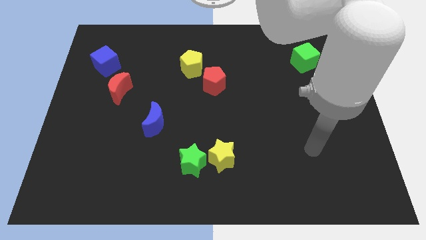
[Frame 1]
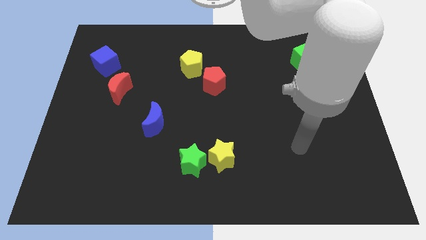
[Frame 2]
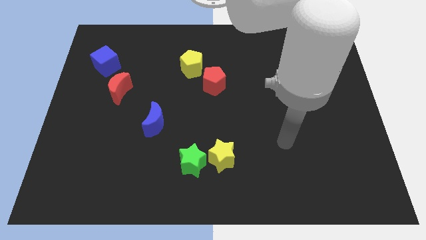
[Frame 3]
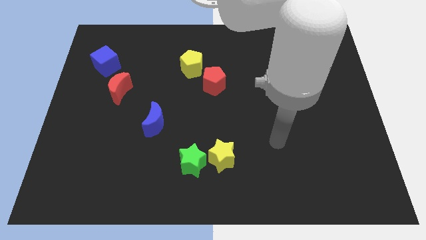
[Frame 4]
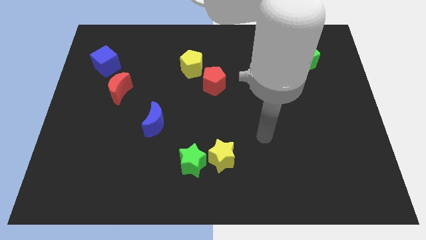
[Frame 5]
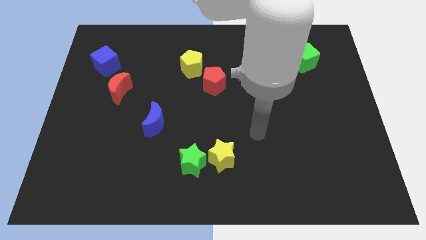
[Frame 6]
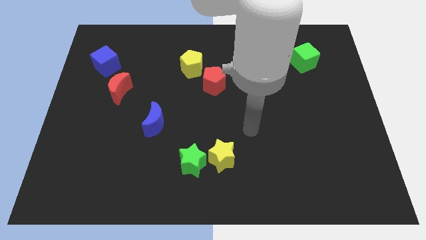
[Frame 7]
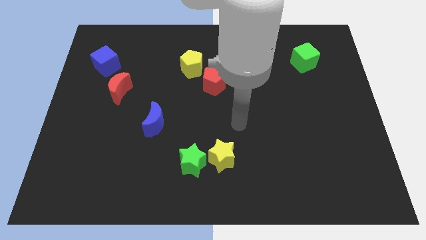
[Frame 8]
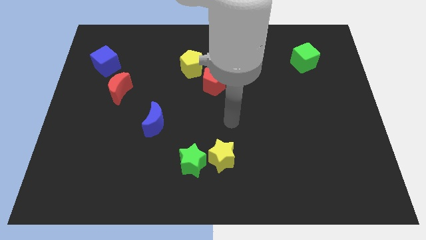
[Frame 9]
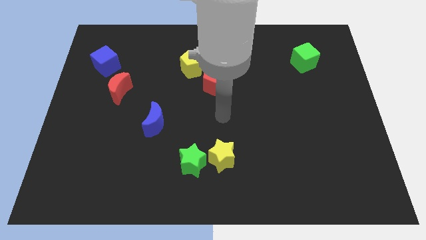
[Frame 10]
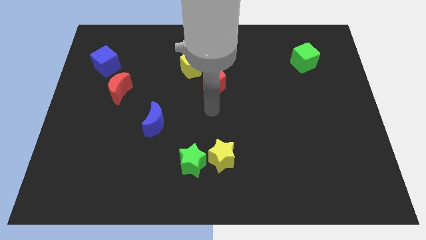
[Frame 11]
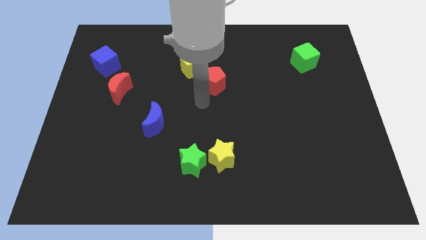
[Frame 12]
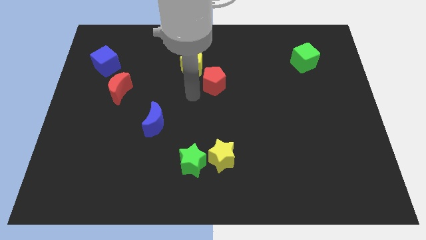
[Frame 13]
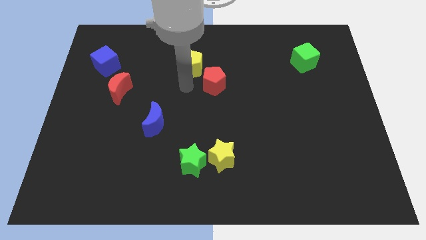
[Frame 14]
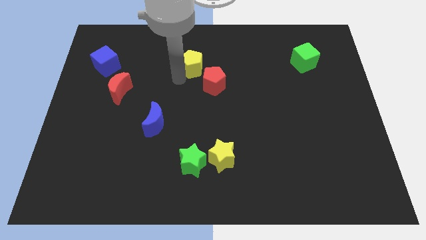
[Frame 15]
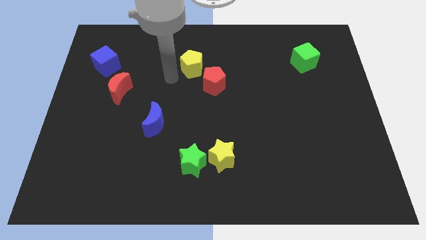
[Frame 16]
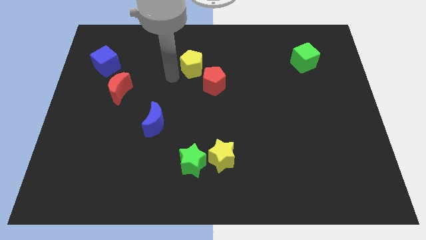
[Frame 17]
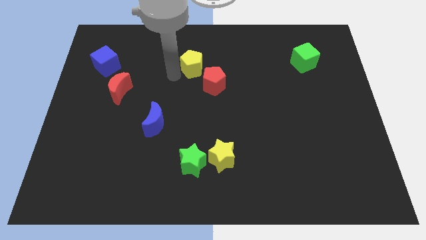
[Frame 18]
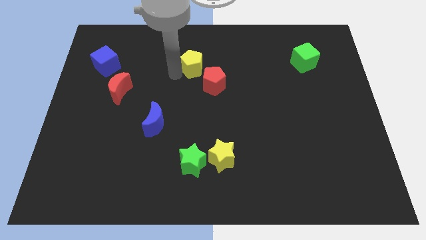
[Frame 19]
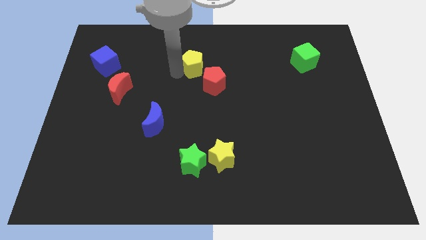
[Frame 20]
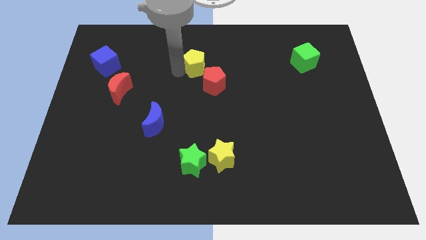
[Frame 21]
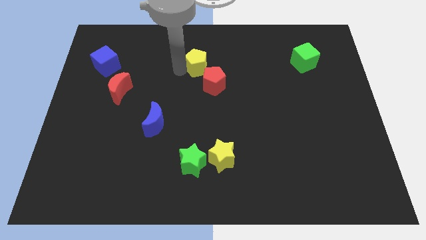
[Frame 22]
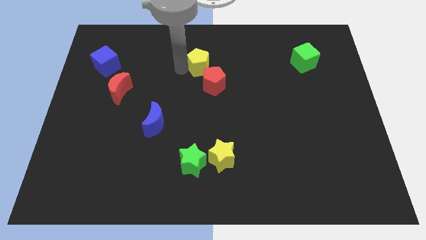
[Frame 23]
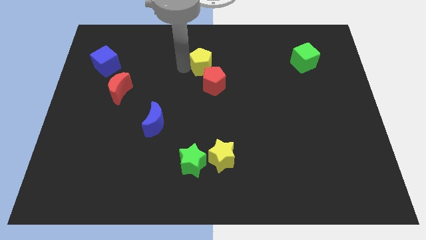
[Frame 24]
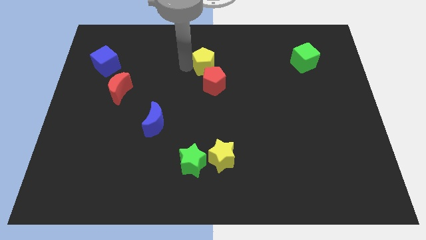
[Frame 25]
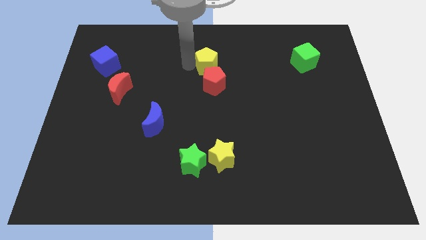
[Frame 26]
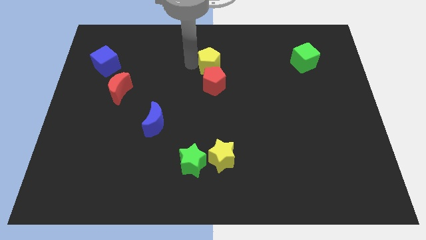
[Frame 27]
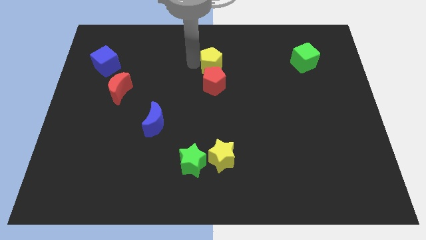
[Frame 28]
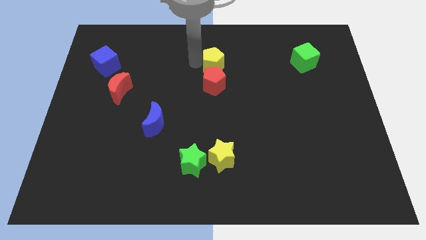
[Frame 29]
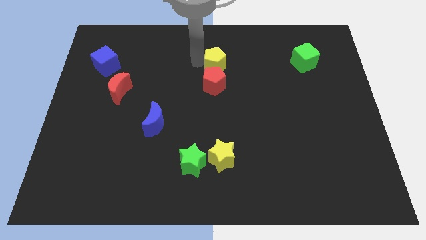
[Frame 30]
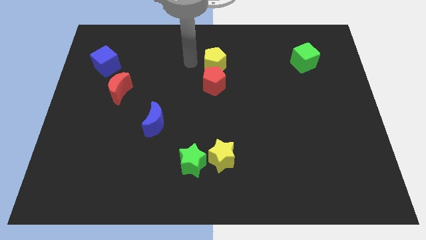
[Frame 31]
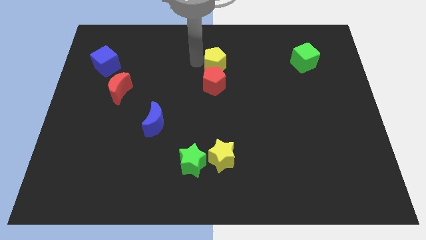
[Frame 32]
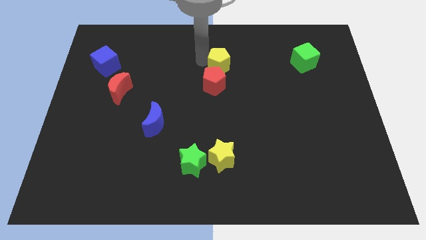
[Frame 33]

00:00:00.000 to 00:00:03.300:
push the yellow pentagon to the right a bit

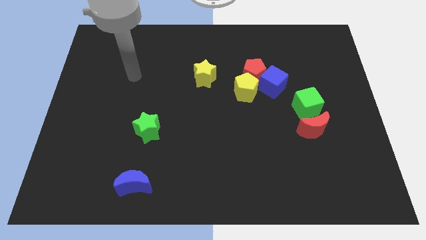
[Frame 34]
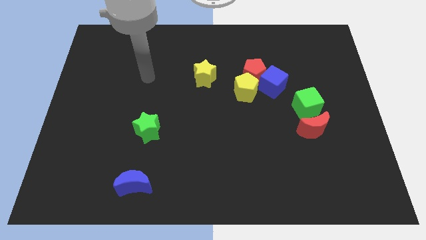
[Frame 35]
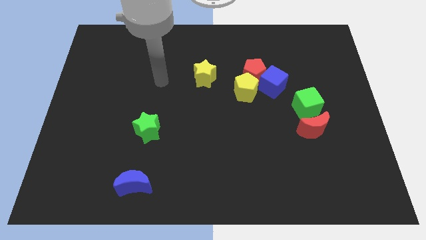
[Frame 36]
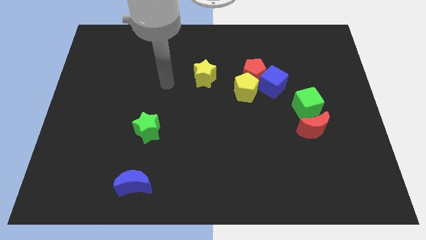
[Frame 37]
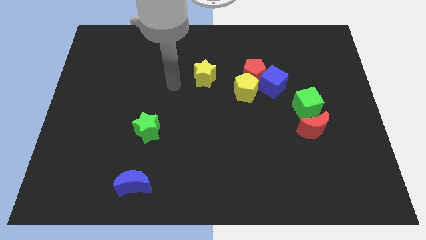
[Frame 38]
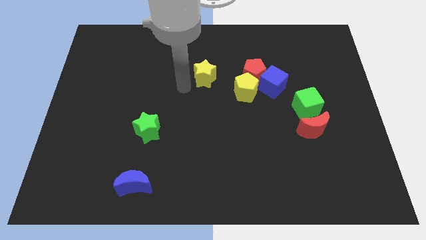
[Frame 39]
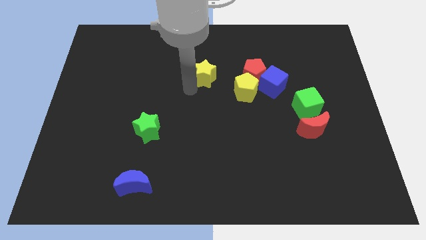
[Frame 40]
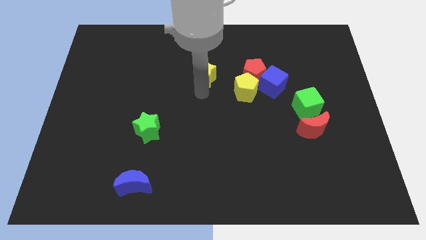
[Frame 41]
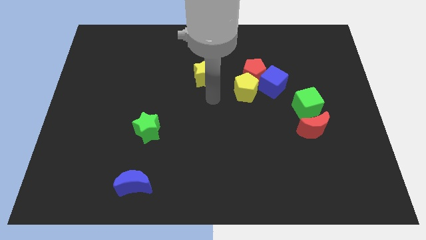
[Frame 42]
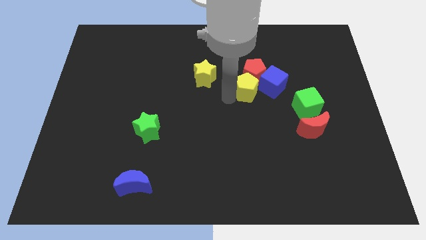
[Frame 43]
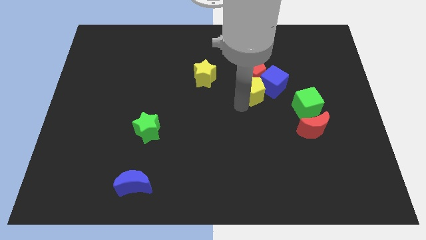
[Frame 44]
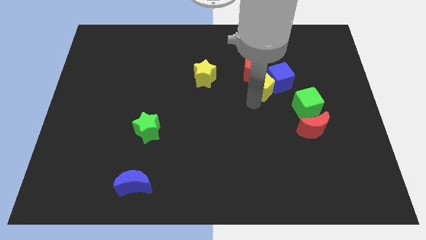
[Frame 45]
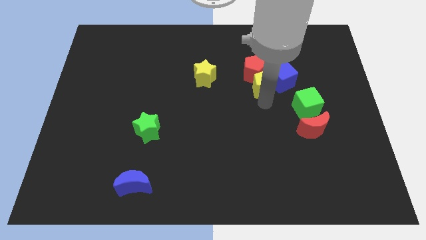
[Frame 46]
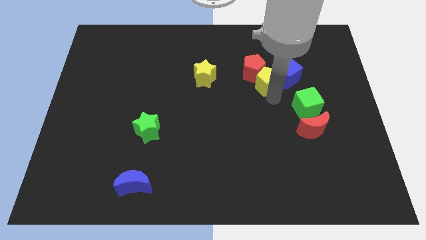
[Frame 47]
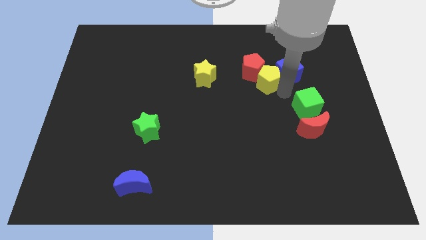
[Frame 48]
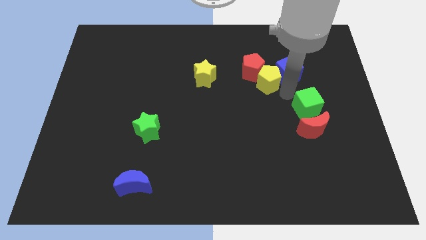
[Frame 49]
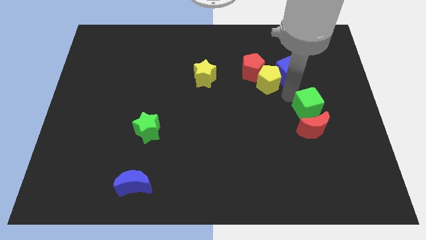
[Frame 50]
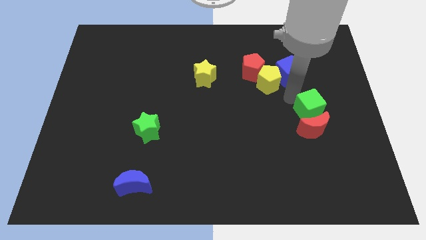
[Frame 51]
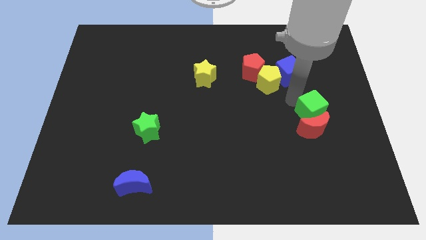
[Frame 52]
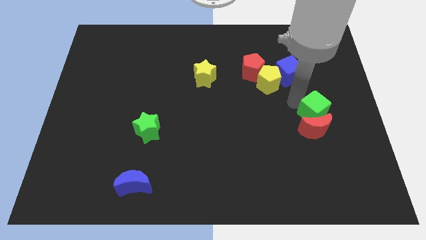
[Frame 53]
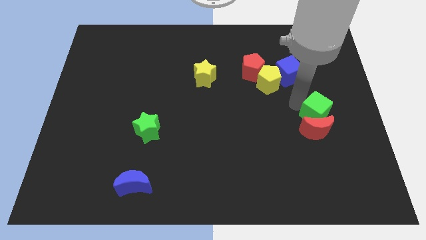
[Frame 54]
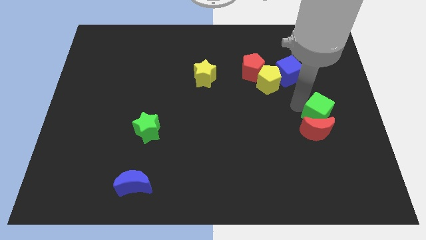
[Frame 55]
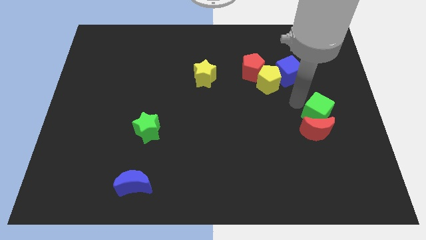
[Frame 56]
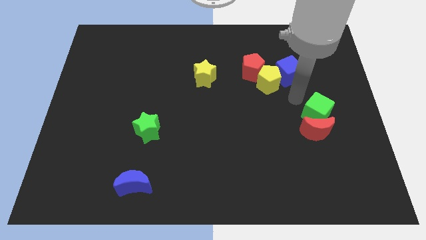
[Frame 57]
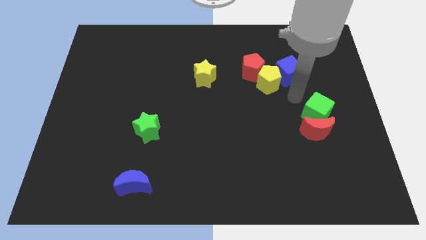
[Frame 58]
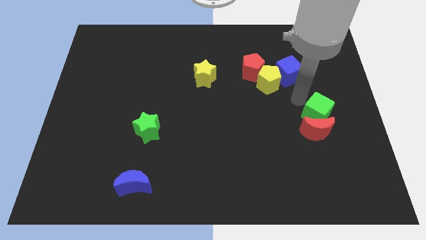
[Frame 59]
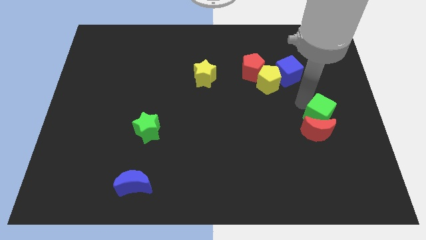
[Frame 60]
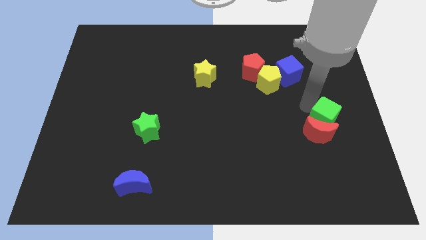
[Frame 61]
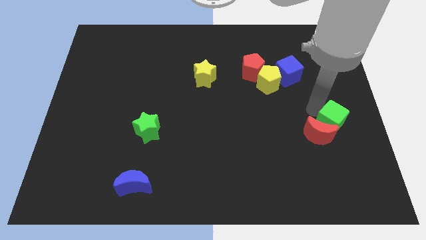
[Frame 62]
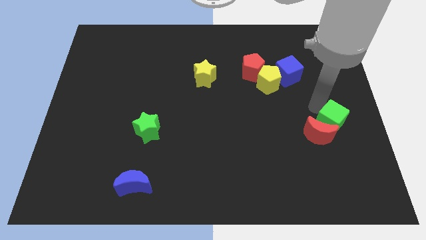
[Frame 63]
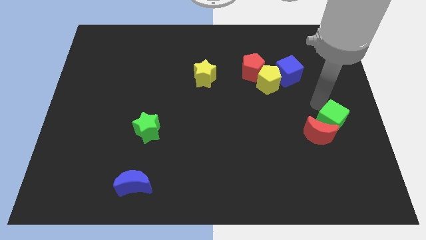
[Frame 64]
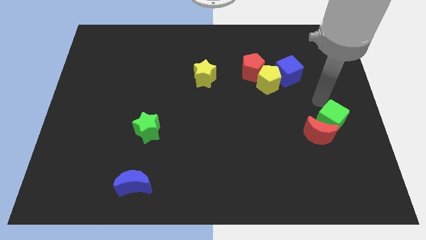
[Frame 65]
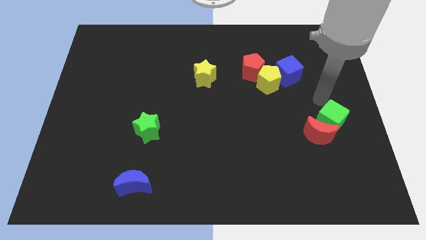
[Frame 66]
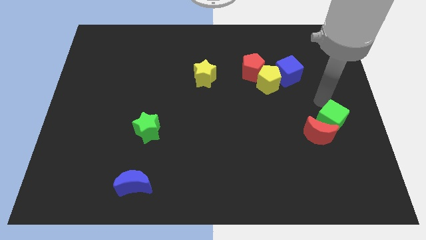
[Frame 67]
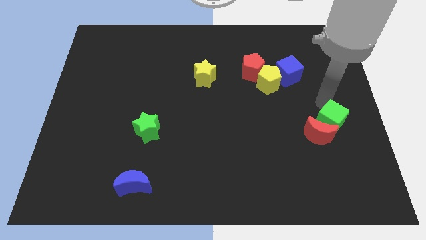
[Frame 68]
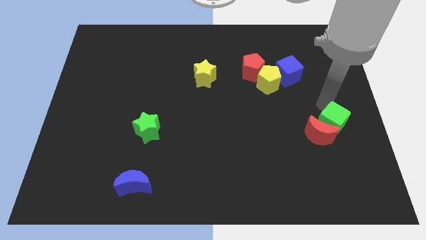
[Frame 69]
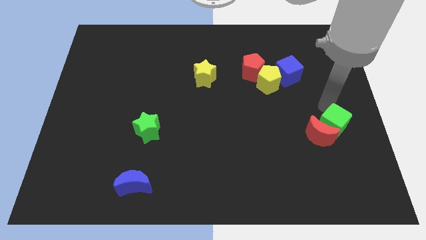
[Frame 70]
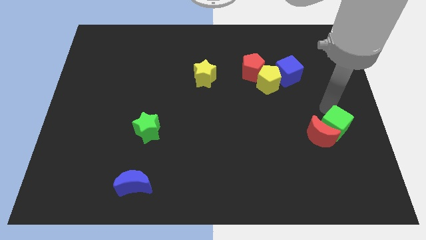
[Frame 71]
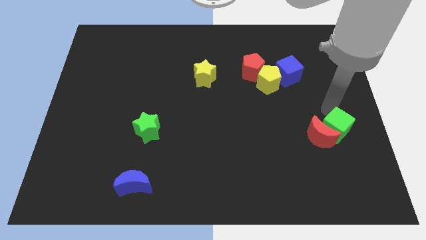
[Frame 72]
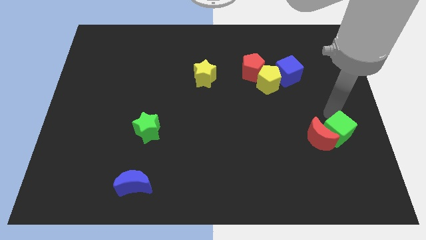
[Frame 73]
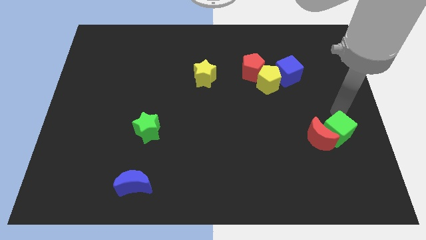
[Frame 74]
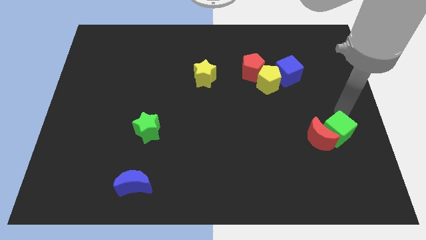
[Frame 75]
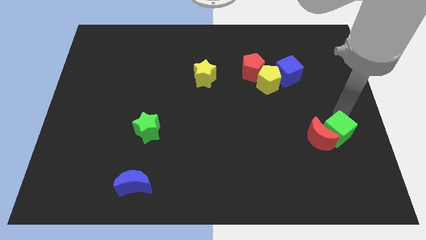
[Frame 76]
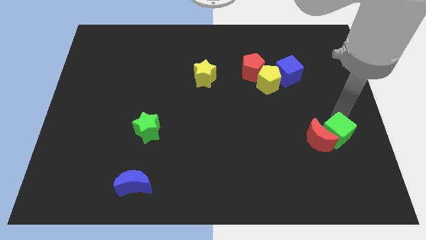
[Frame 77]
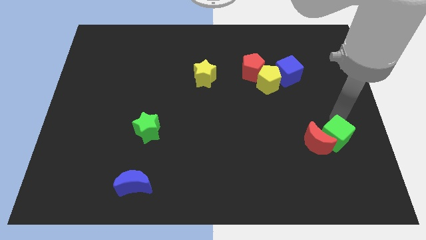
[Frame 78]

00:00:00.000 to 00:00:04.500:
move the green cube downwards somewhat
